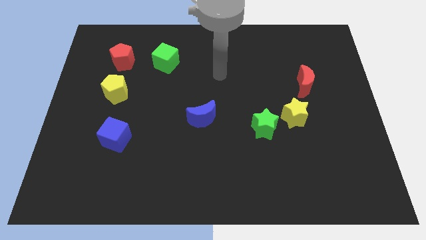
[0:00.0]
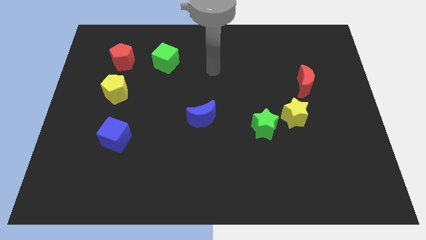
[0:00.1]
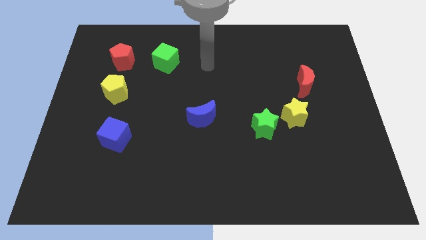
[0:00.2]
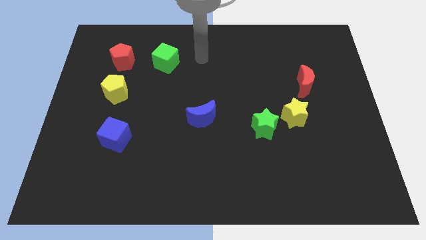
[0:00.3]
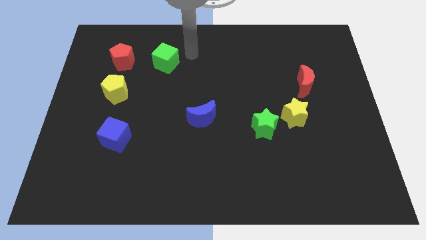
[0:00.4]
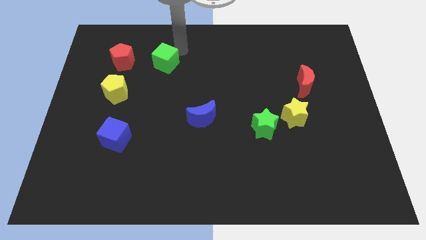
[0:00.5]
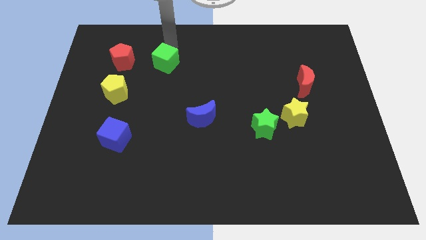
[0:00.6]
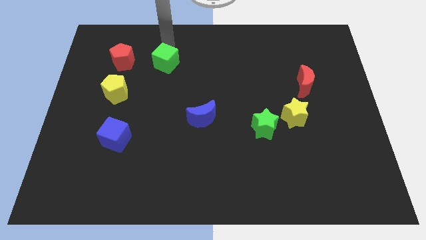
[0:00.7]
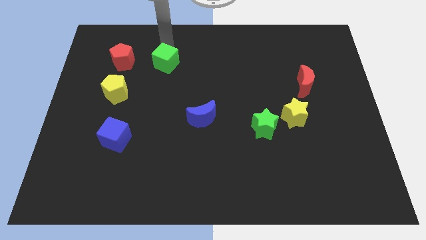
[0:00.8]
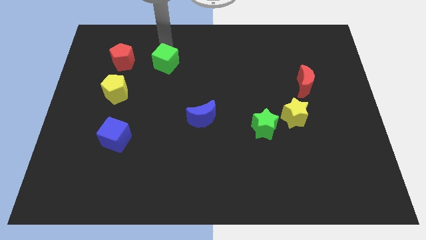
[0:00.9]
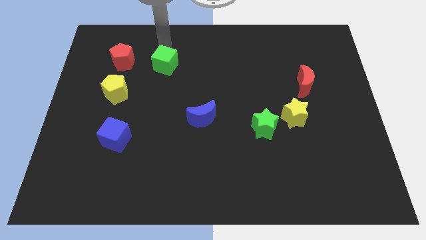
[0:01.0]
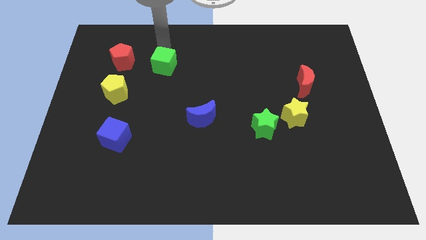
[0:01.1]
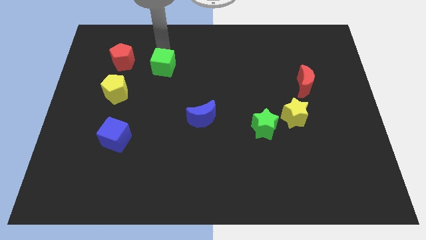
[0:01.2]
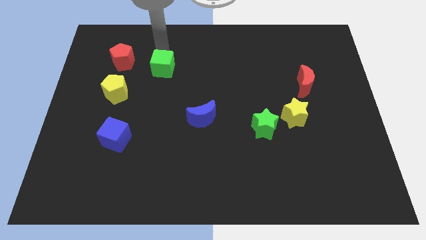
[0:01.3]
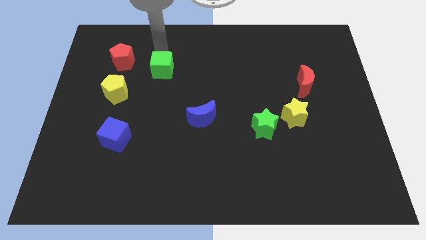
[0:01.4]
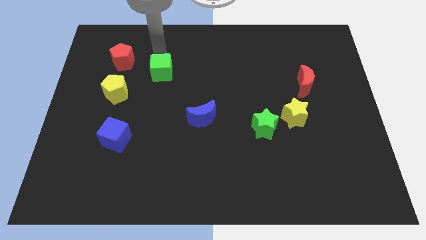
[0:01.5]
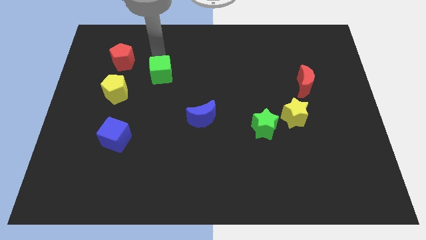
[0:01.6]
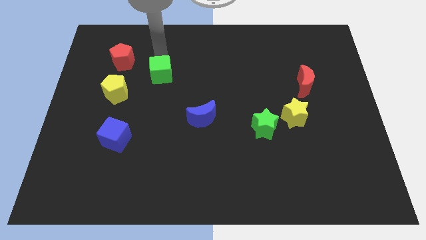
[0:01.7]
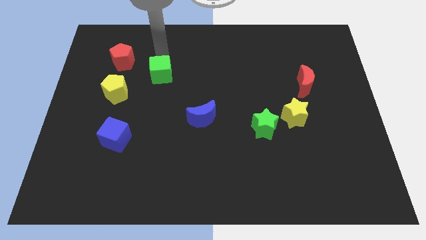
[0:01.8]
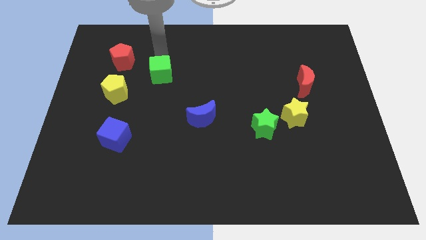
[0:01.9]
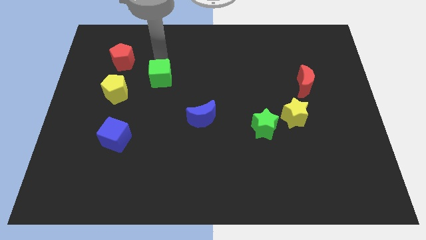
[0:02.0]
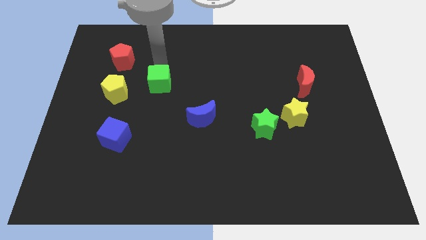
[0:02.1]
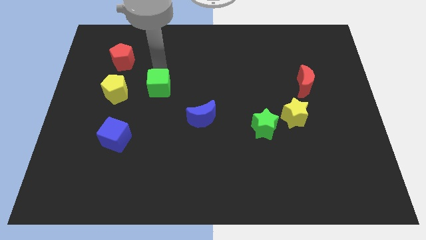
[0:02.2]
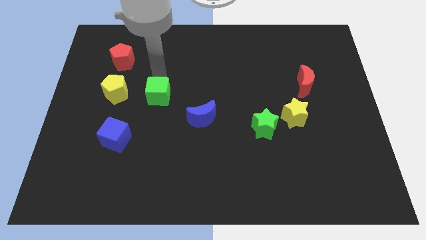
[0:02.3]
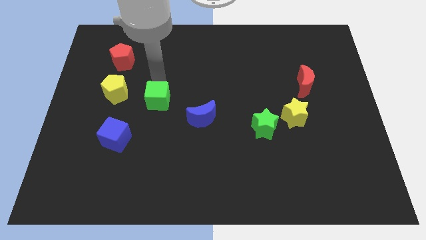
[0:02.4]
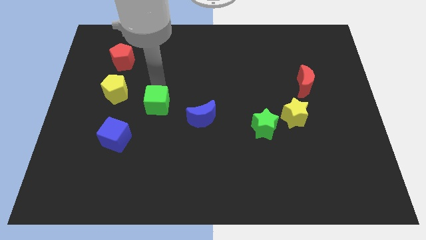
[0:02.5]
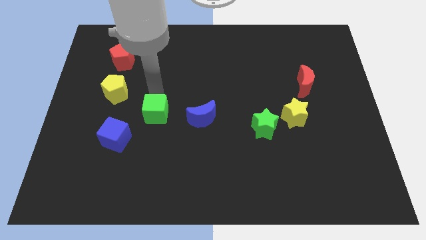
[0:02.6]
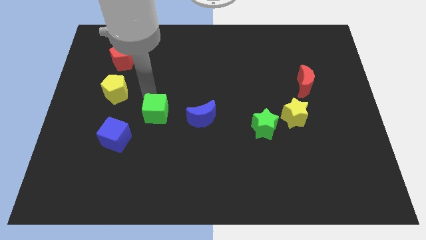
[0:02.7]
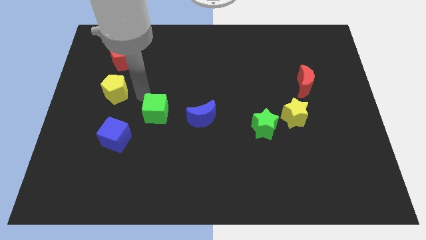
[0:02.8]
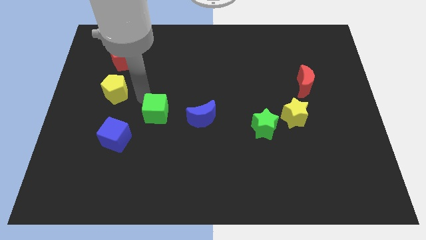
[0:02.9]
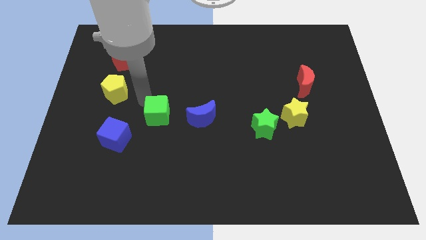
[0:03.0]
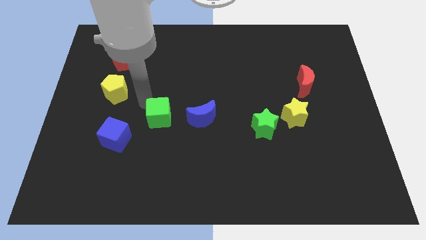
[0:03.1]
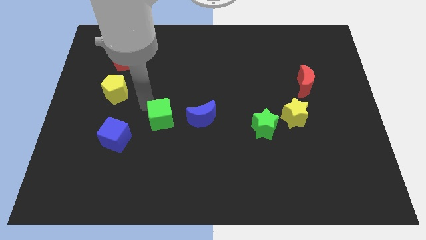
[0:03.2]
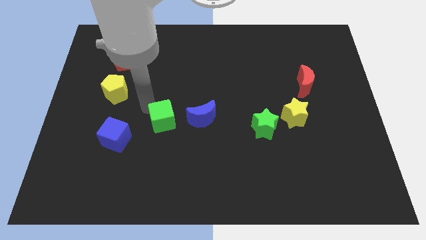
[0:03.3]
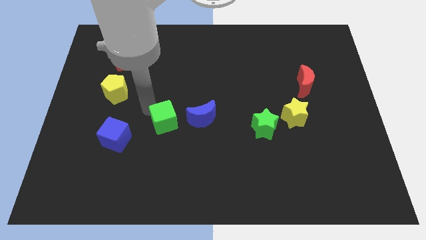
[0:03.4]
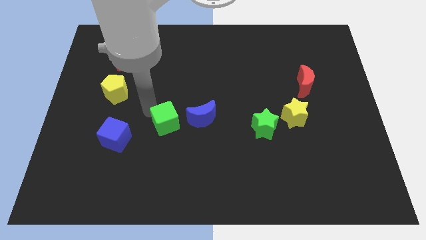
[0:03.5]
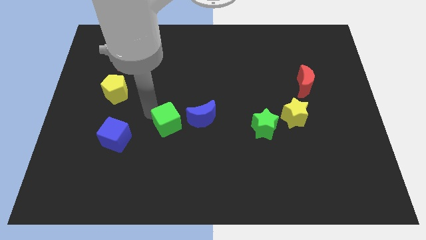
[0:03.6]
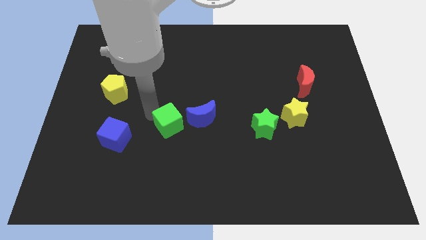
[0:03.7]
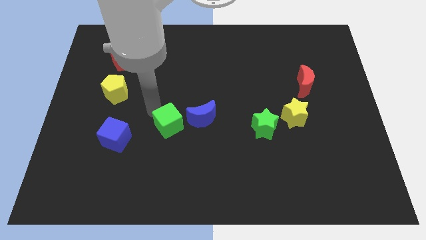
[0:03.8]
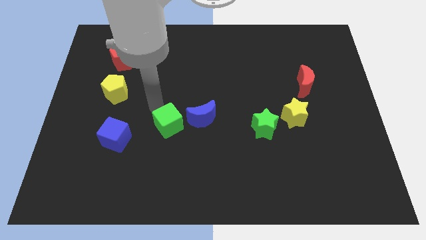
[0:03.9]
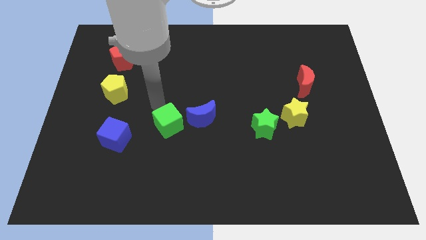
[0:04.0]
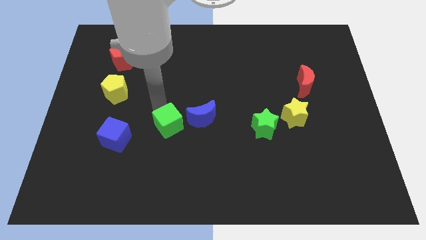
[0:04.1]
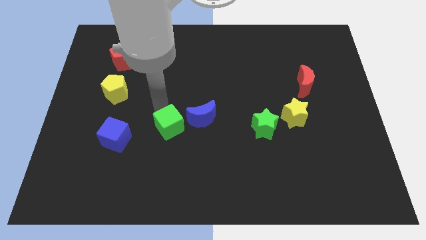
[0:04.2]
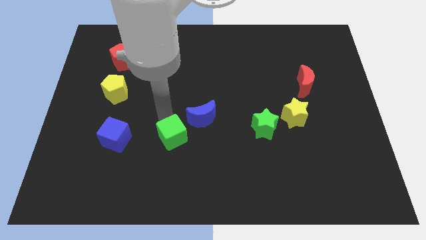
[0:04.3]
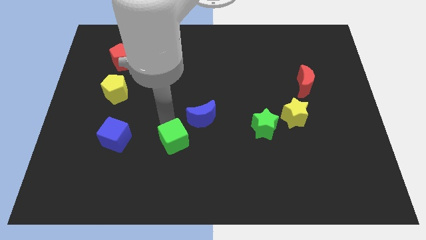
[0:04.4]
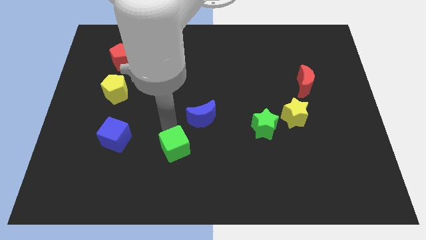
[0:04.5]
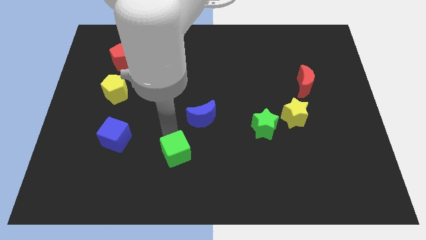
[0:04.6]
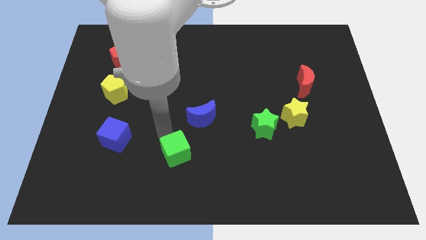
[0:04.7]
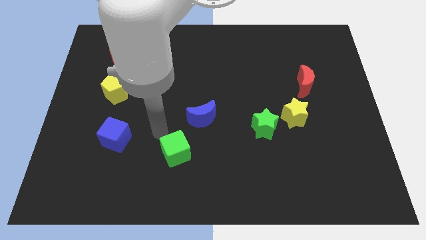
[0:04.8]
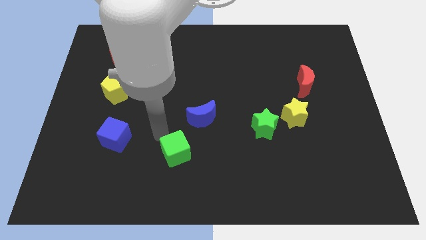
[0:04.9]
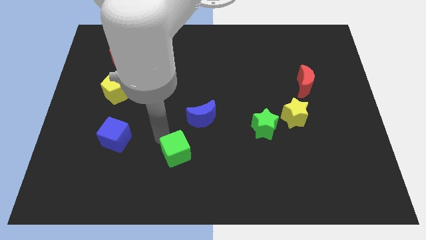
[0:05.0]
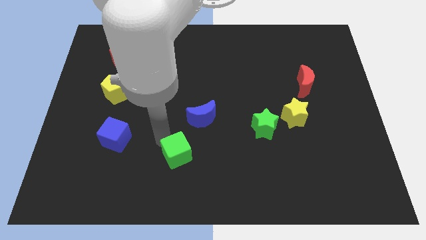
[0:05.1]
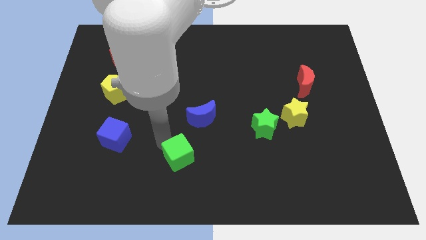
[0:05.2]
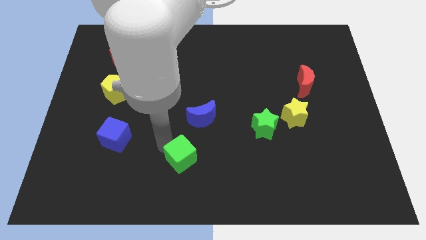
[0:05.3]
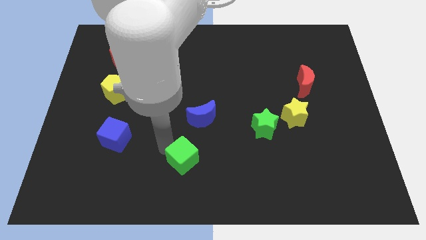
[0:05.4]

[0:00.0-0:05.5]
push the green cube to the bottom side
